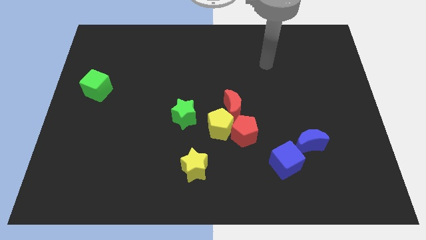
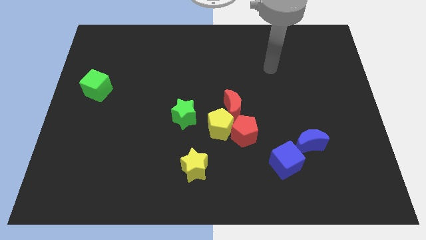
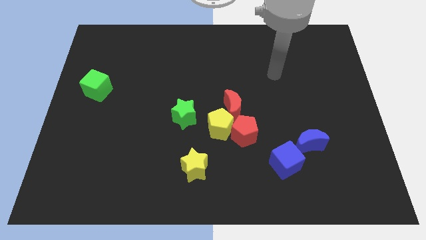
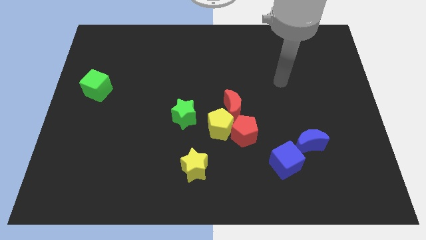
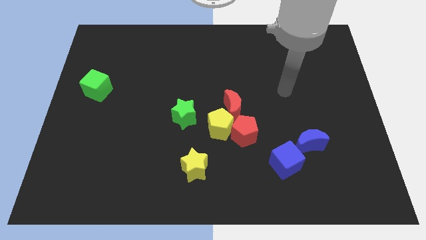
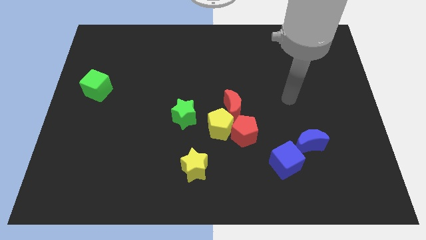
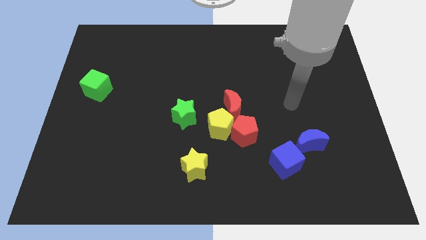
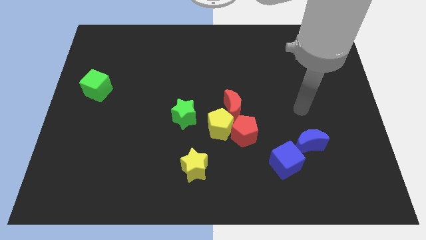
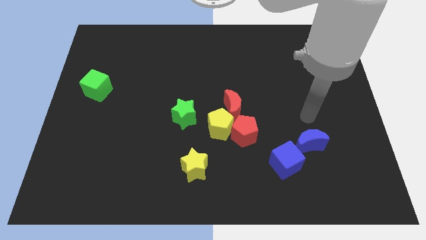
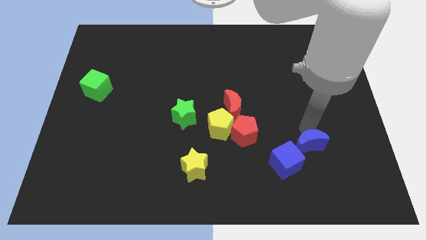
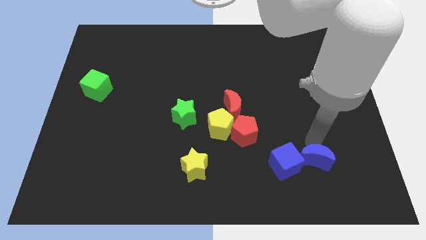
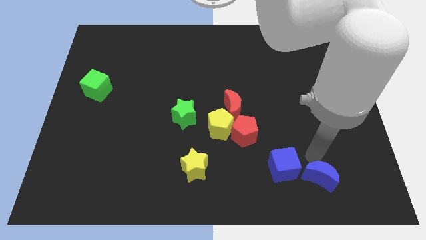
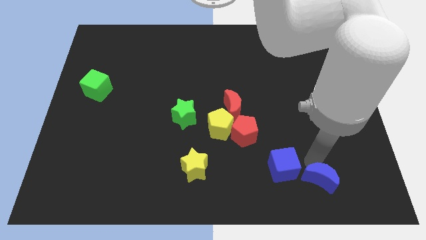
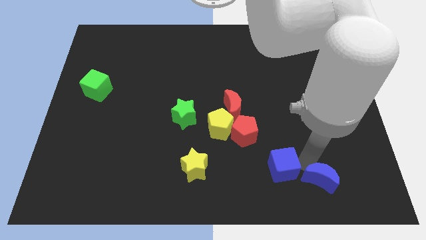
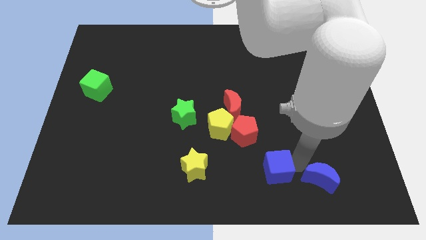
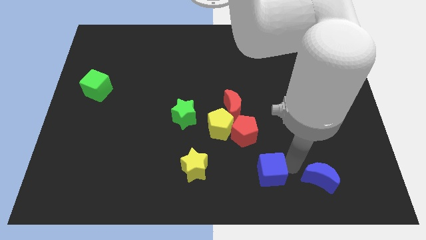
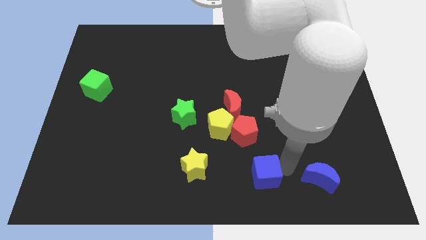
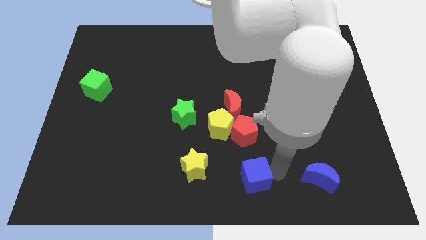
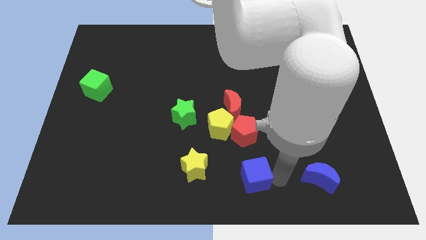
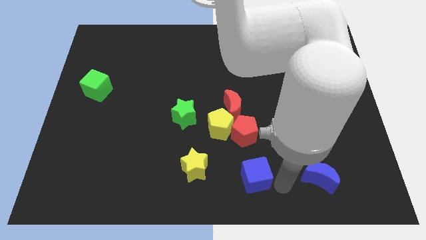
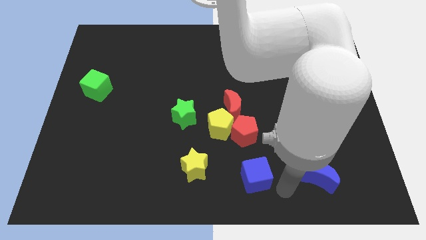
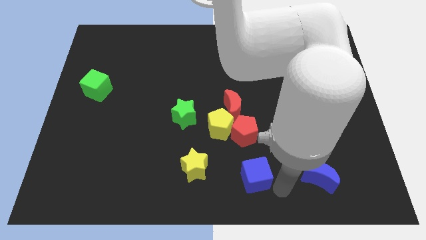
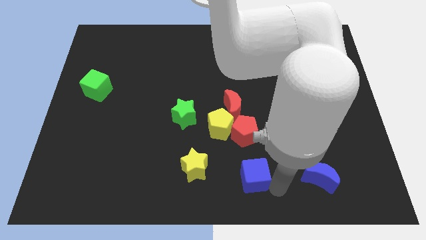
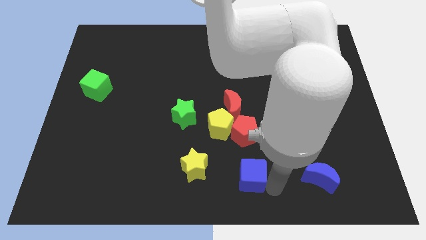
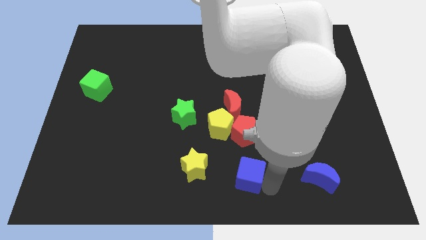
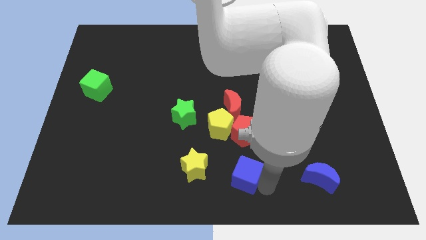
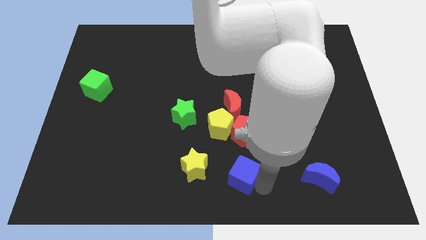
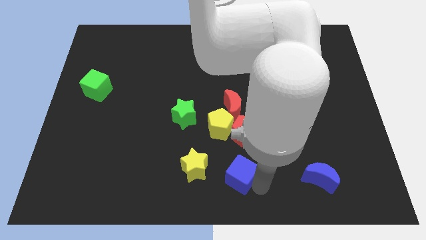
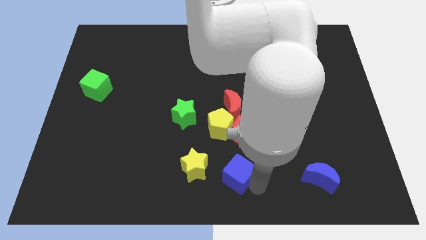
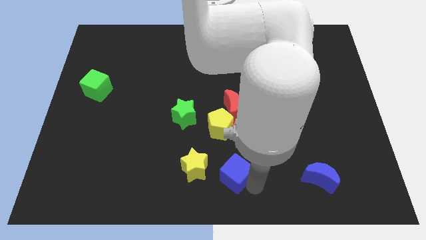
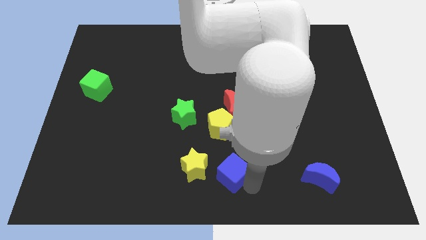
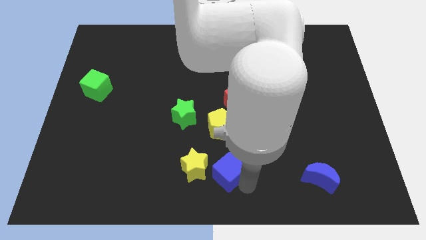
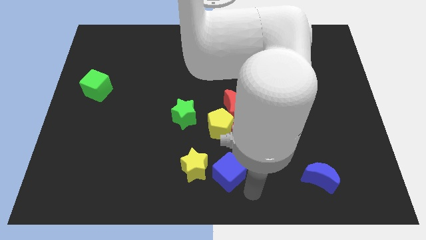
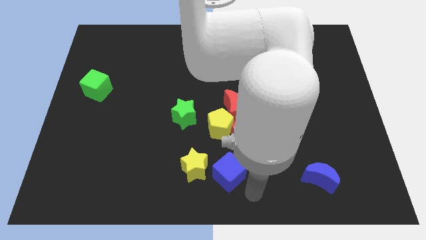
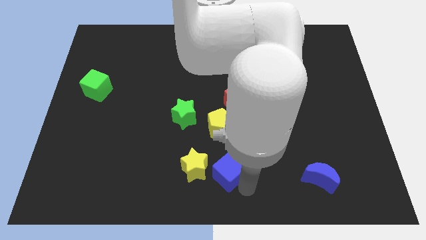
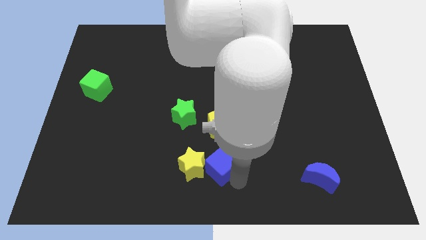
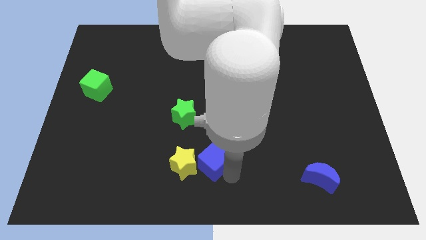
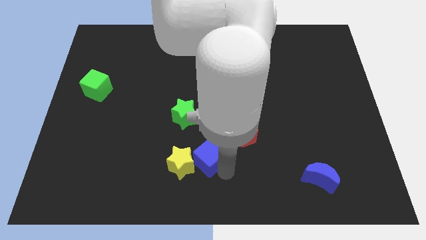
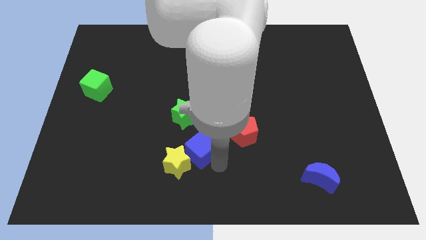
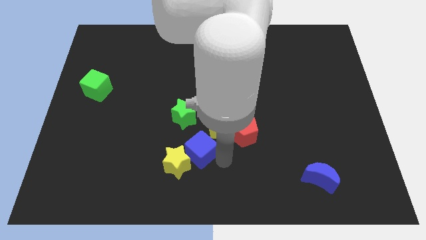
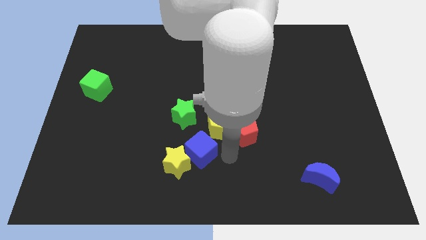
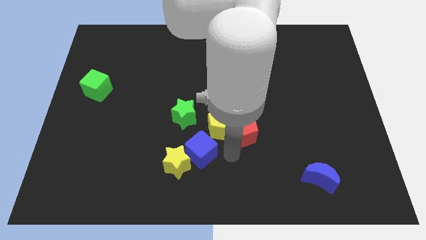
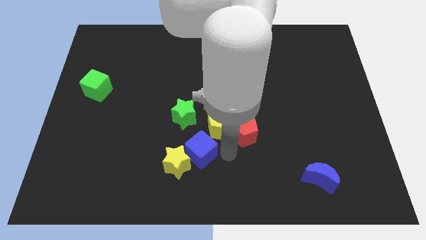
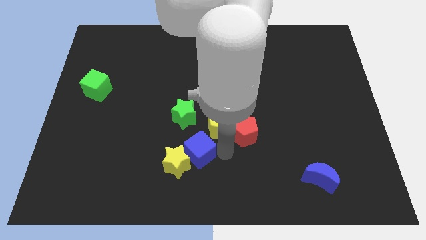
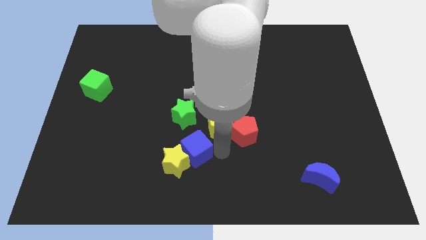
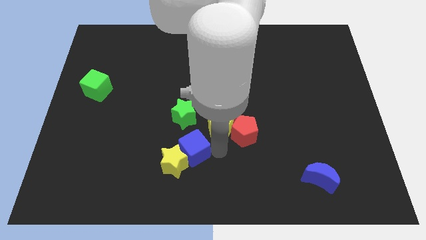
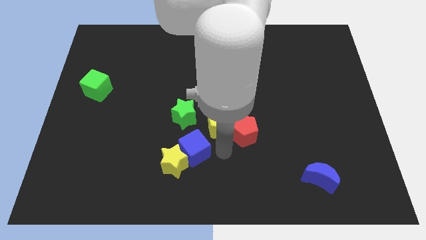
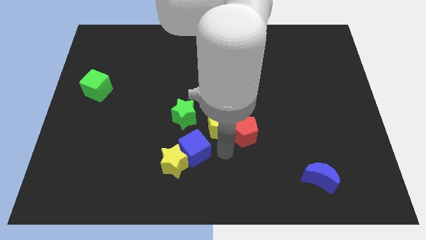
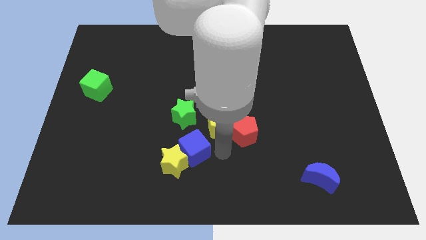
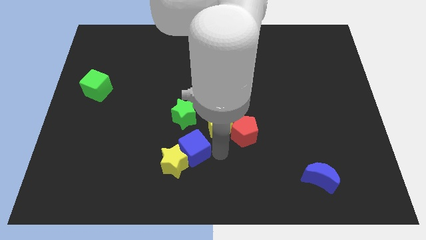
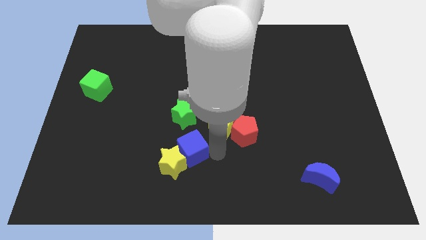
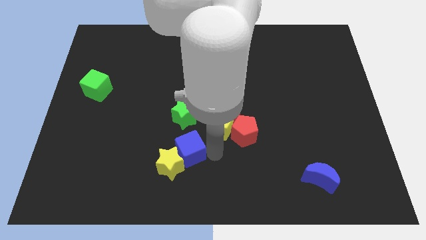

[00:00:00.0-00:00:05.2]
move the blue cube to the left

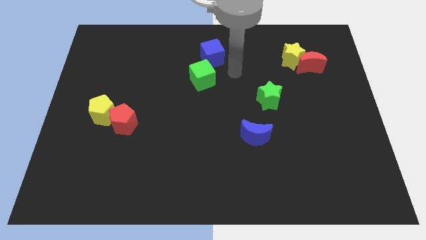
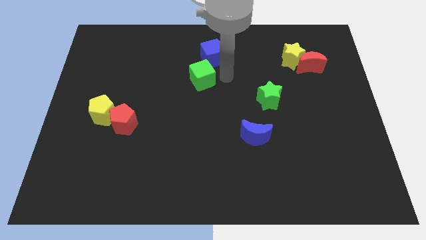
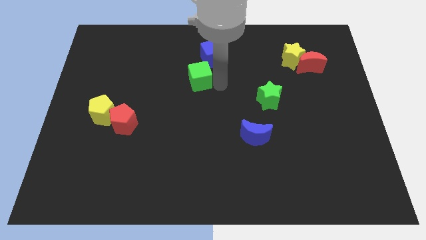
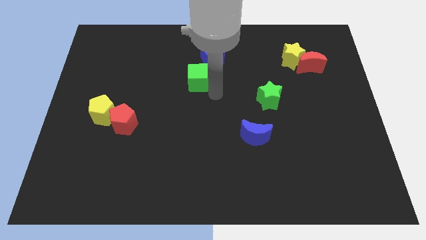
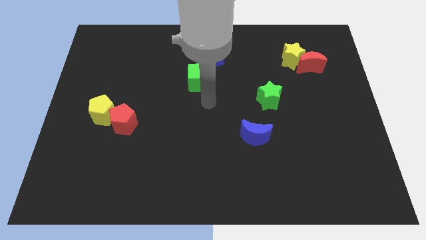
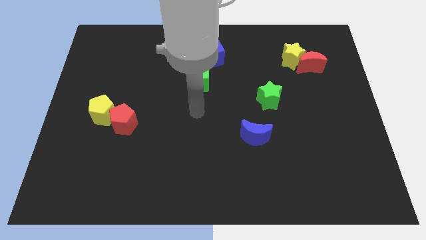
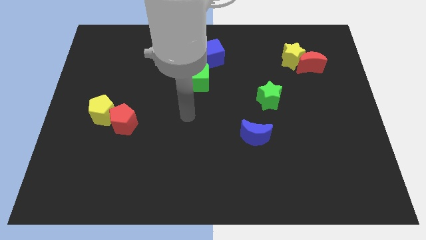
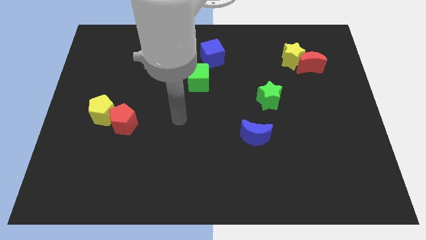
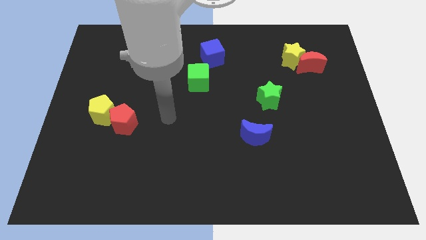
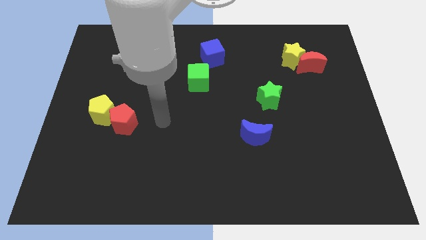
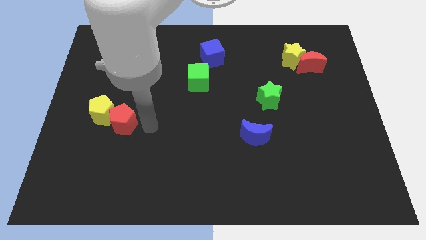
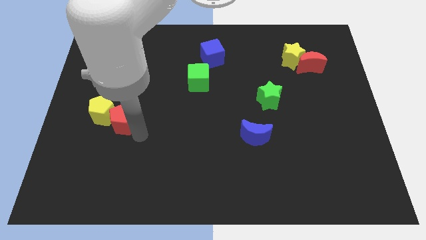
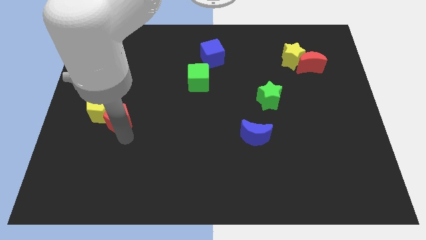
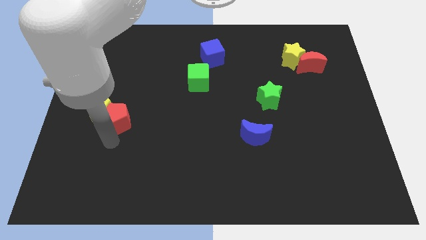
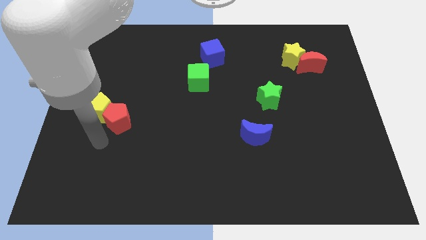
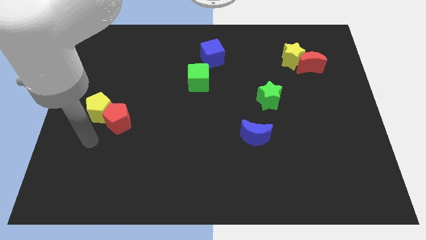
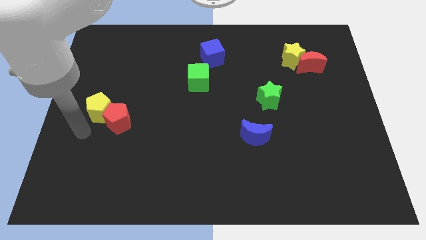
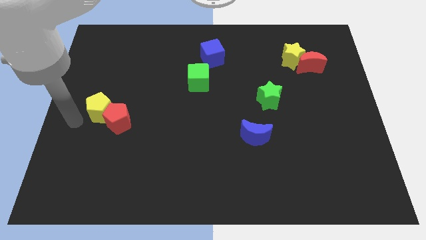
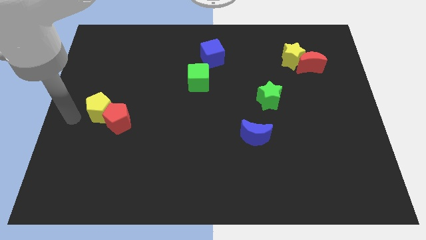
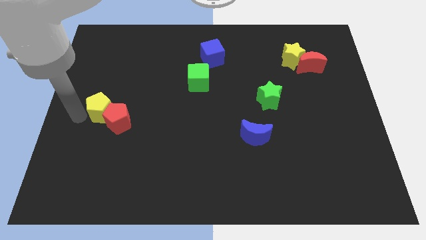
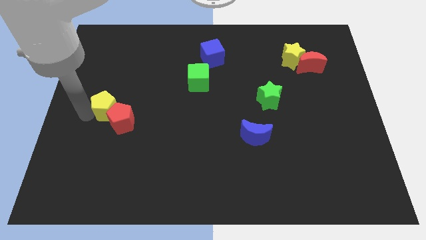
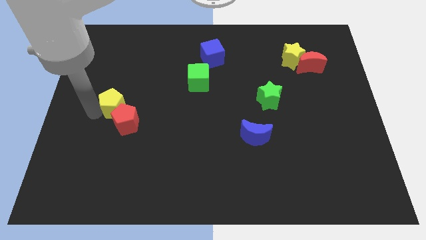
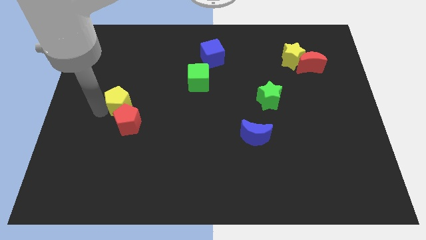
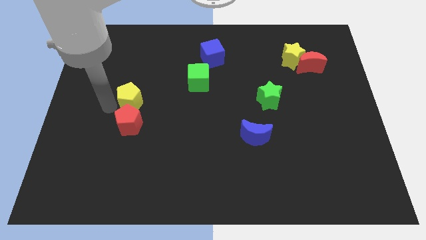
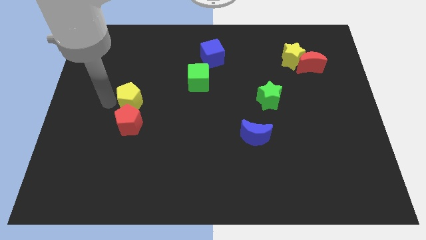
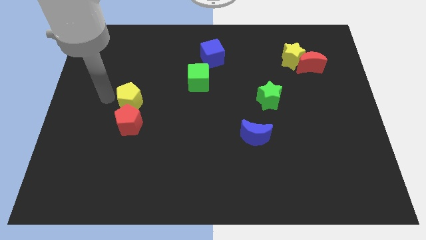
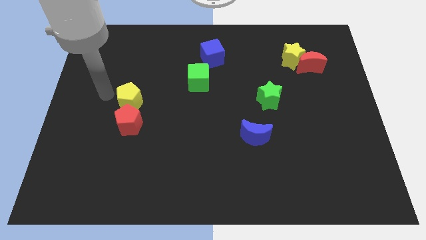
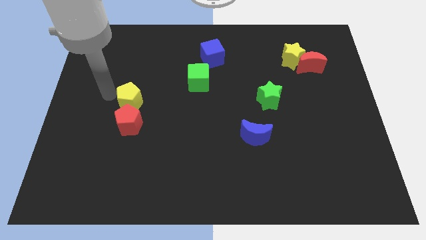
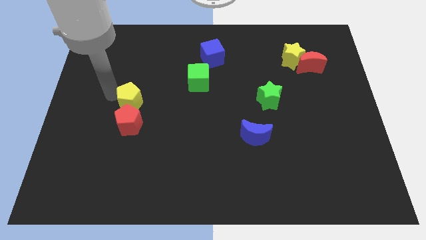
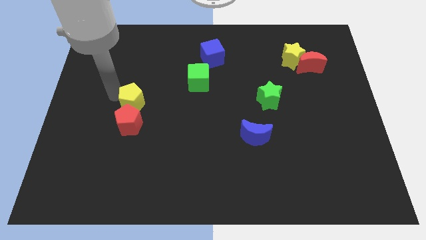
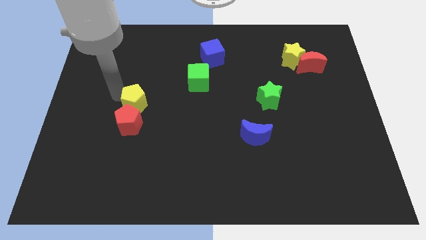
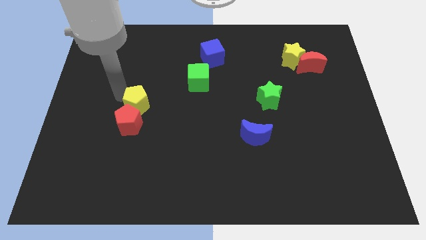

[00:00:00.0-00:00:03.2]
slightly move the yellow pentagon right
